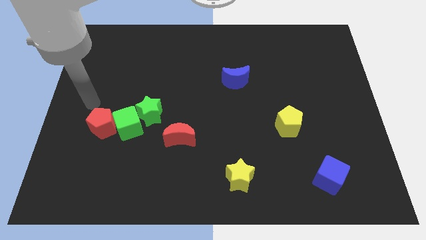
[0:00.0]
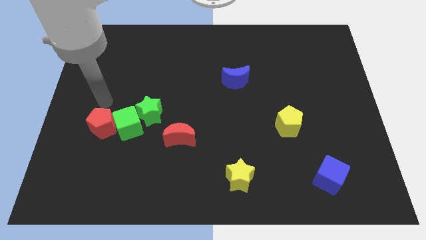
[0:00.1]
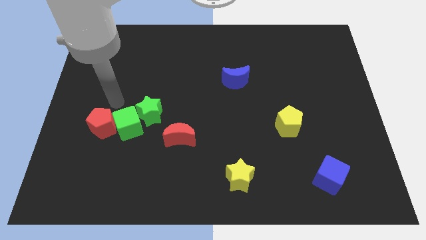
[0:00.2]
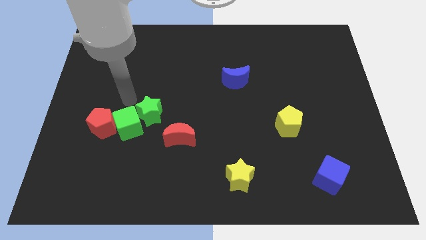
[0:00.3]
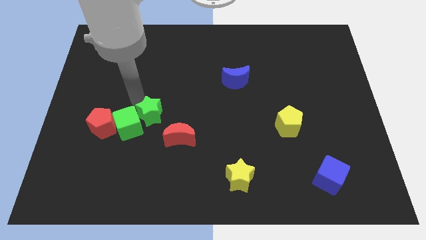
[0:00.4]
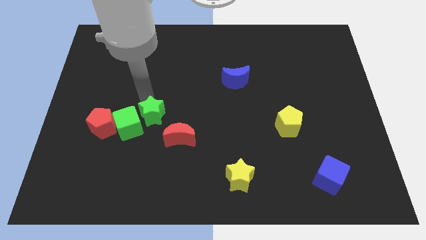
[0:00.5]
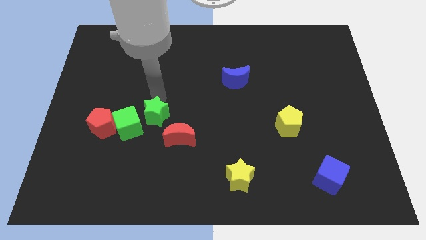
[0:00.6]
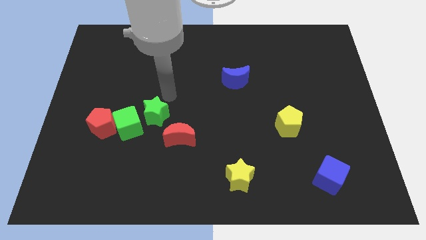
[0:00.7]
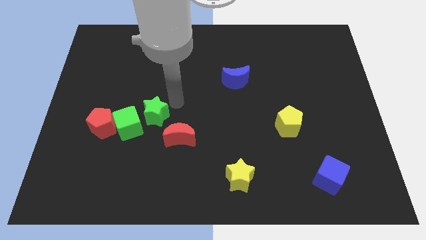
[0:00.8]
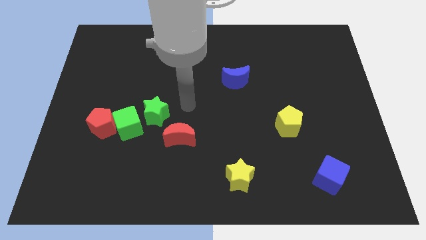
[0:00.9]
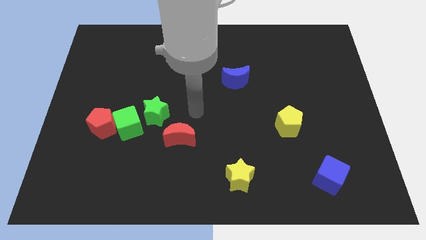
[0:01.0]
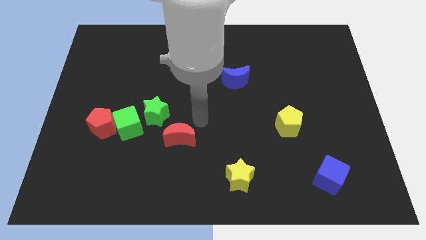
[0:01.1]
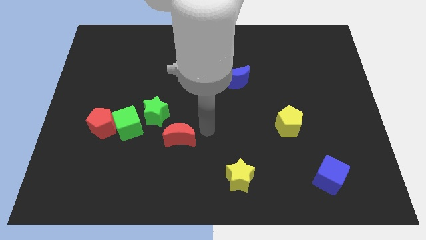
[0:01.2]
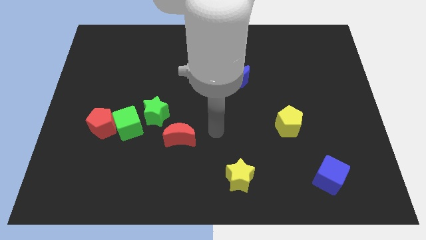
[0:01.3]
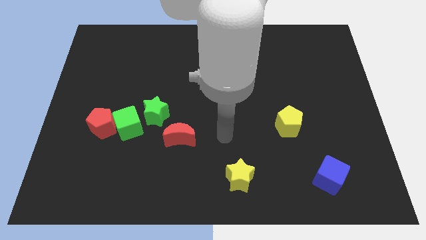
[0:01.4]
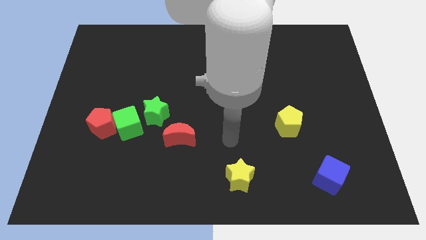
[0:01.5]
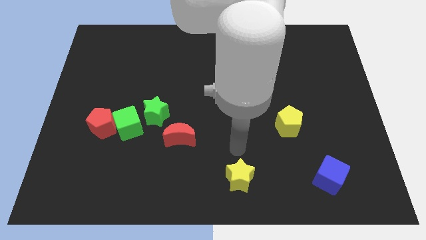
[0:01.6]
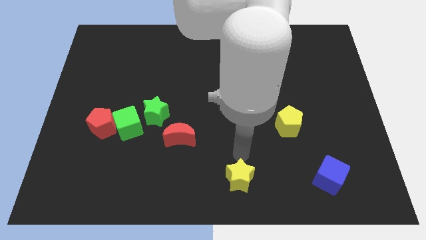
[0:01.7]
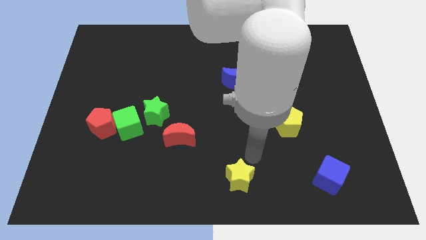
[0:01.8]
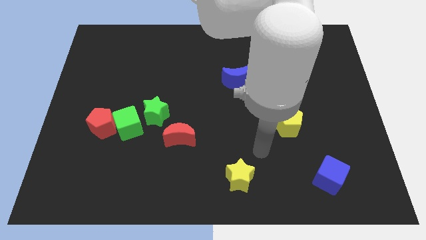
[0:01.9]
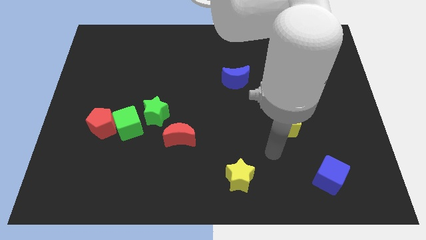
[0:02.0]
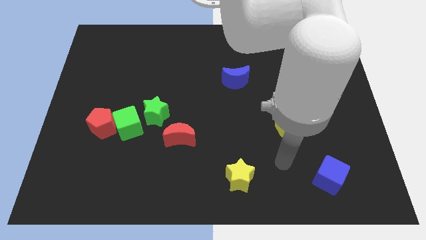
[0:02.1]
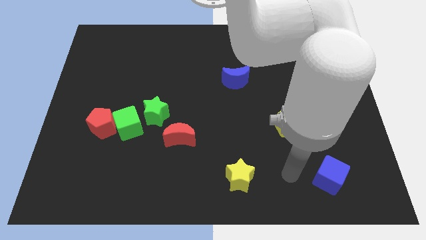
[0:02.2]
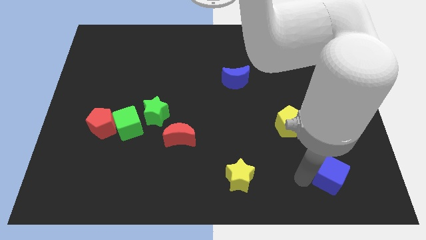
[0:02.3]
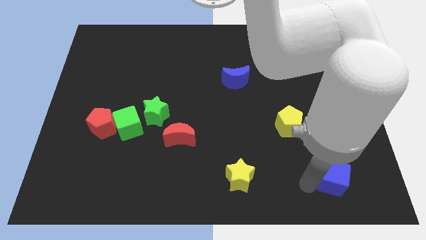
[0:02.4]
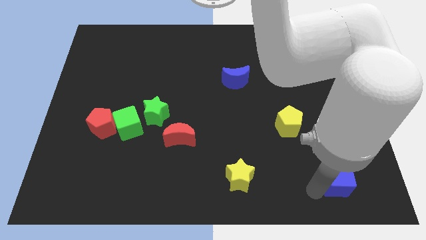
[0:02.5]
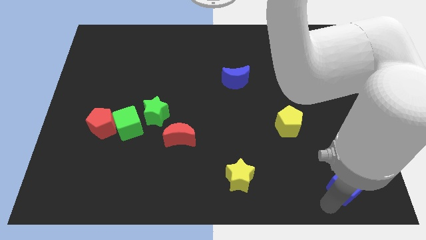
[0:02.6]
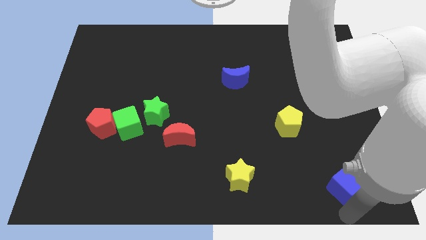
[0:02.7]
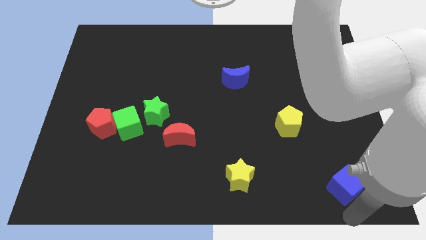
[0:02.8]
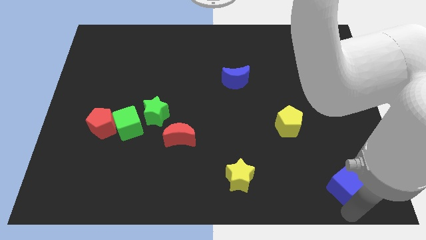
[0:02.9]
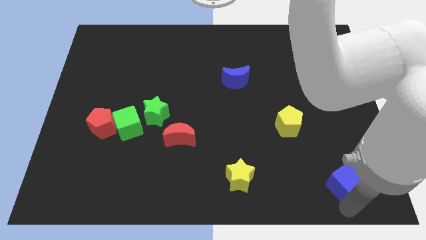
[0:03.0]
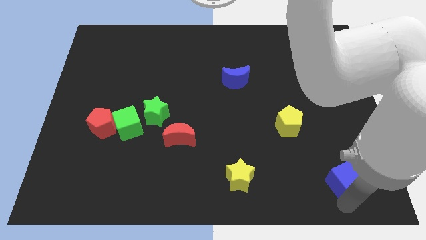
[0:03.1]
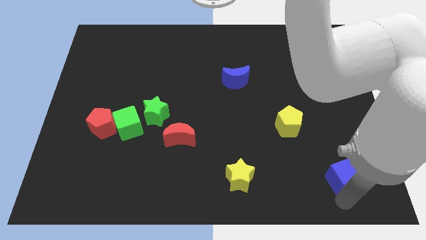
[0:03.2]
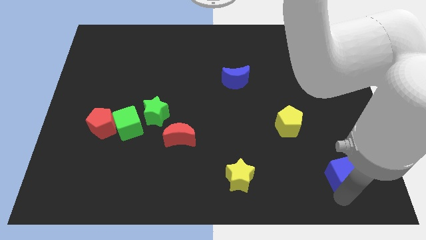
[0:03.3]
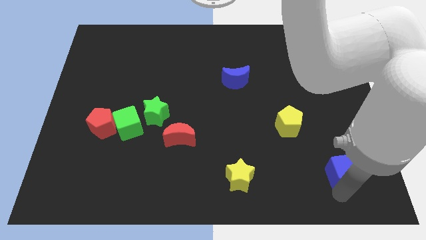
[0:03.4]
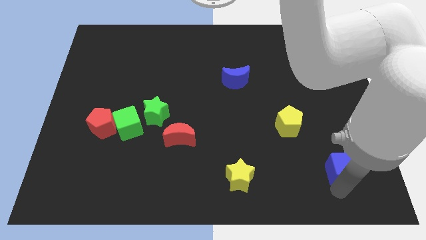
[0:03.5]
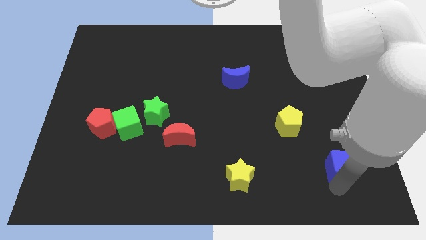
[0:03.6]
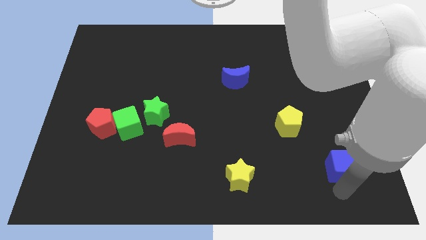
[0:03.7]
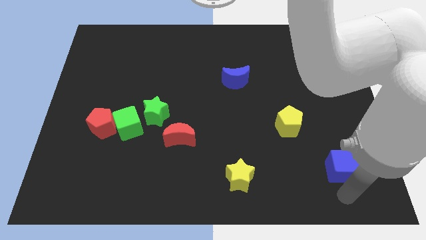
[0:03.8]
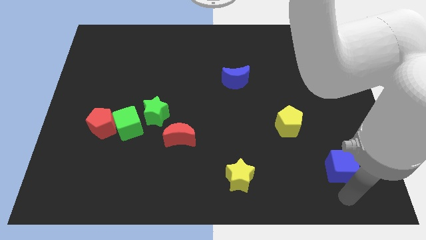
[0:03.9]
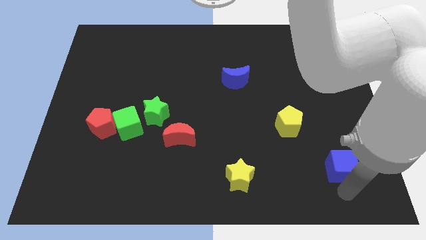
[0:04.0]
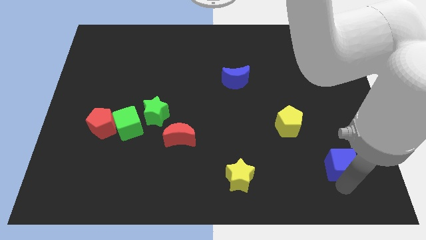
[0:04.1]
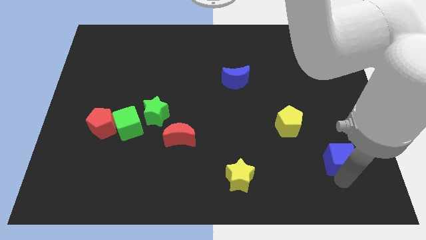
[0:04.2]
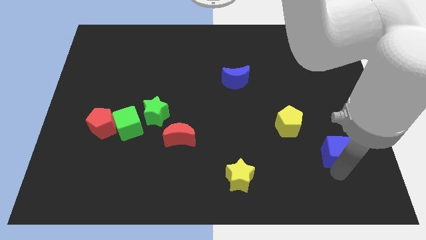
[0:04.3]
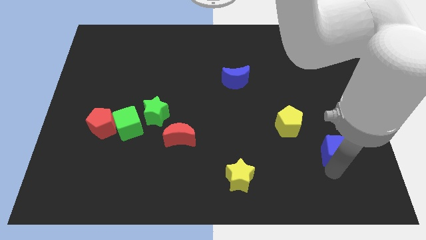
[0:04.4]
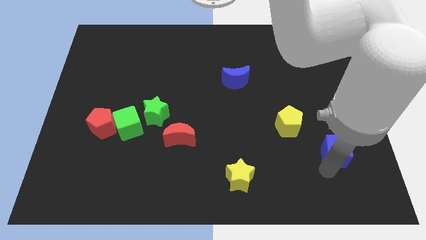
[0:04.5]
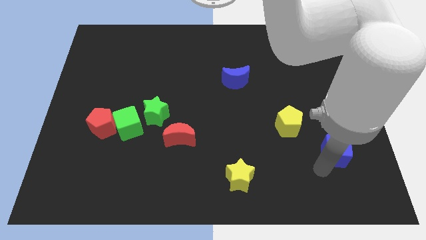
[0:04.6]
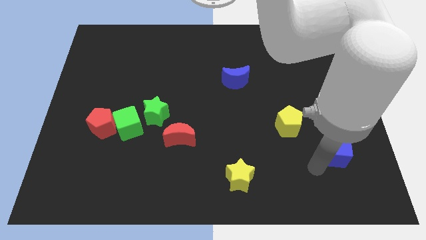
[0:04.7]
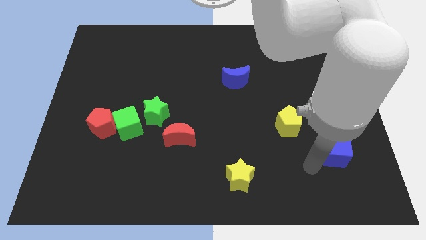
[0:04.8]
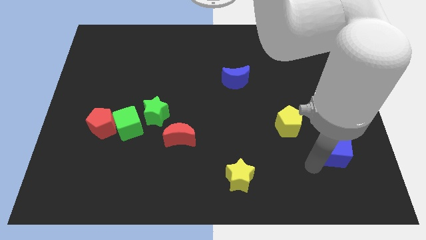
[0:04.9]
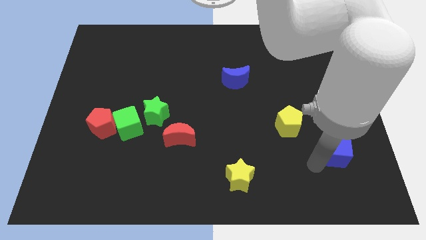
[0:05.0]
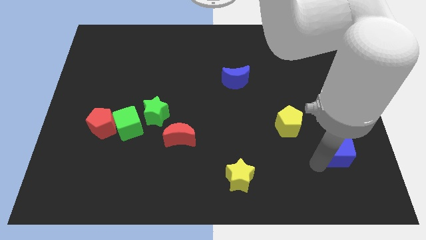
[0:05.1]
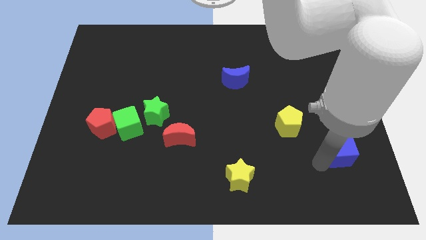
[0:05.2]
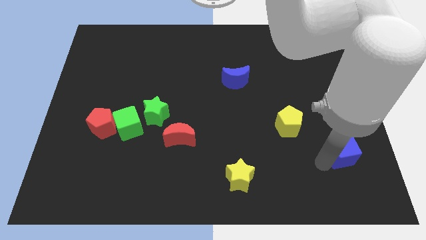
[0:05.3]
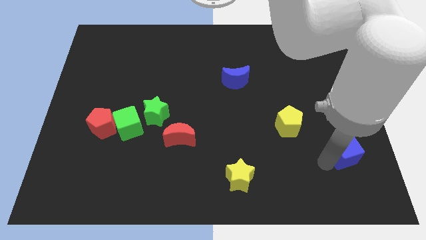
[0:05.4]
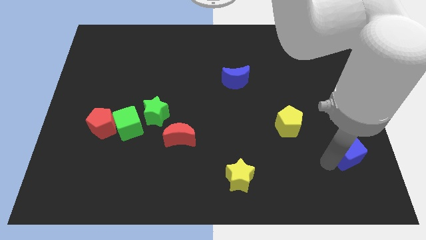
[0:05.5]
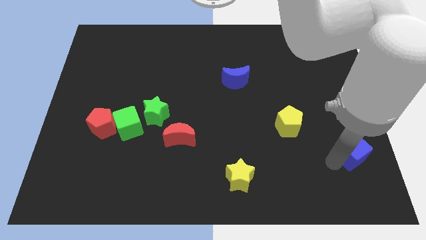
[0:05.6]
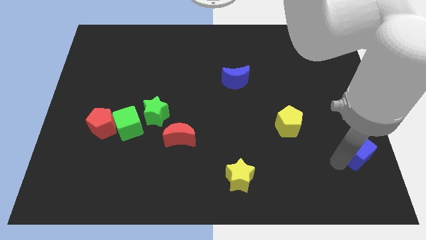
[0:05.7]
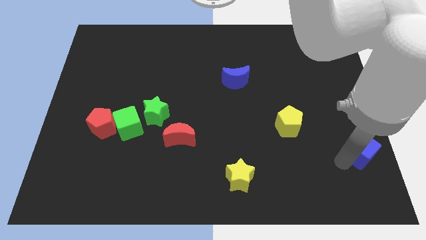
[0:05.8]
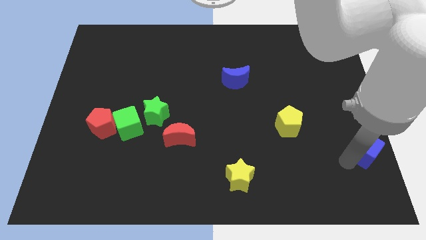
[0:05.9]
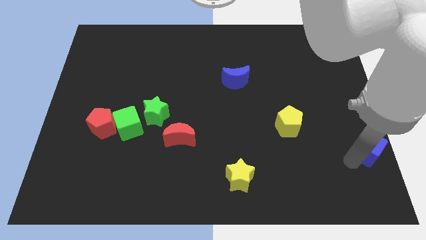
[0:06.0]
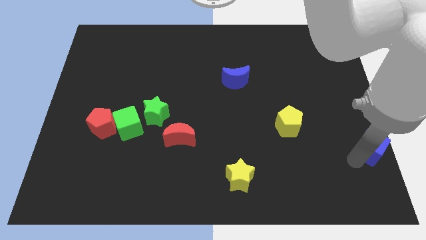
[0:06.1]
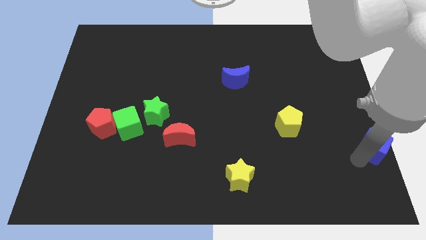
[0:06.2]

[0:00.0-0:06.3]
push the blue cube to the right side of the board

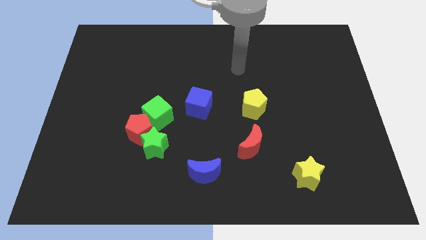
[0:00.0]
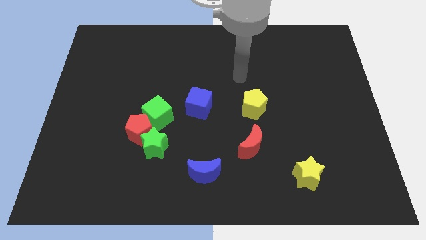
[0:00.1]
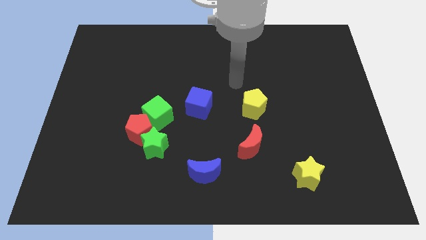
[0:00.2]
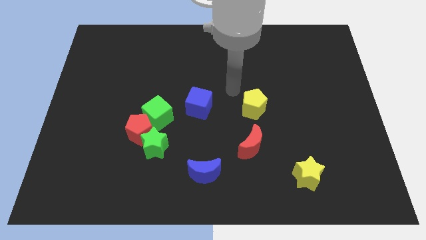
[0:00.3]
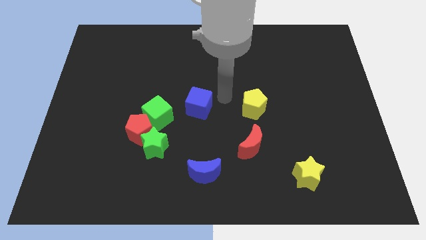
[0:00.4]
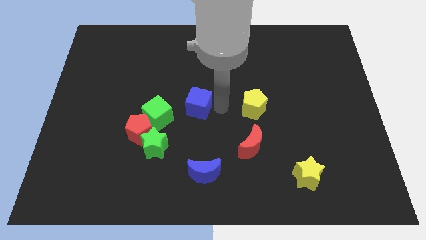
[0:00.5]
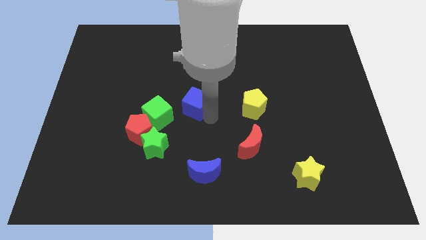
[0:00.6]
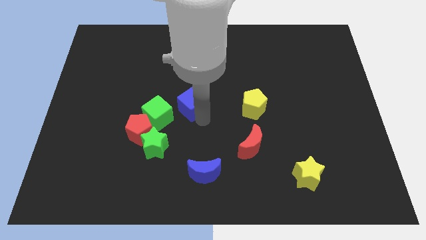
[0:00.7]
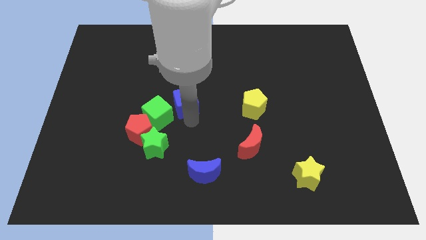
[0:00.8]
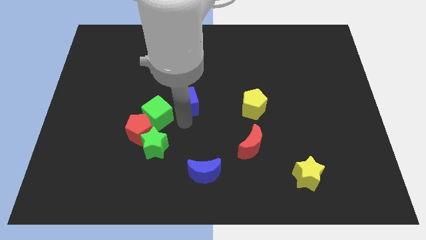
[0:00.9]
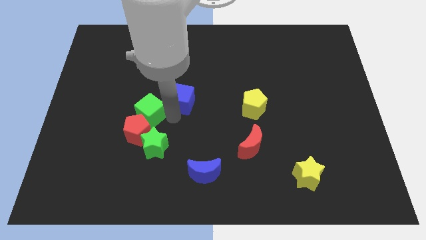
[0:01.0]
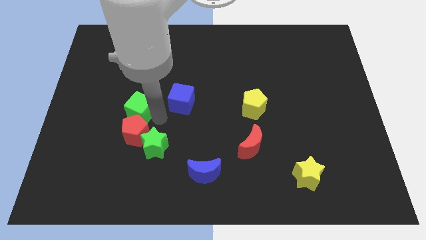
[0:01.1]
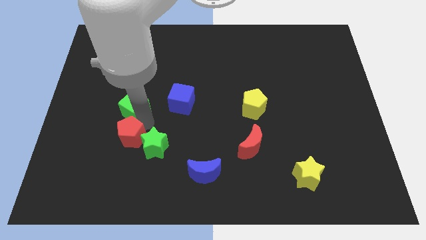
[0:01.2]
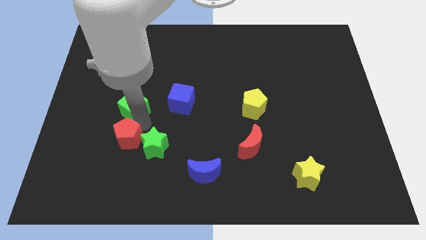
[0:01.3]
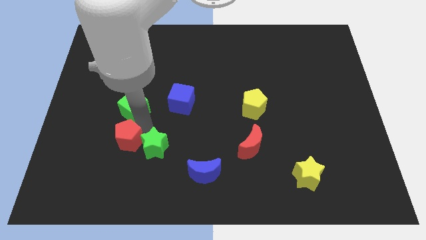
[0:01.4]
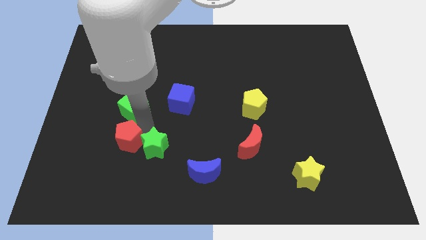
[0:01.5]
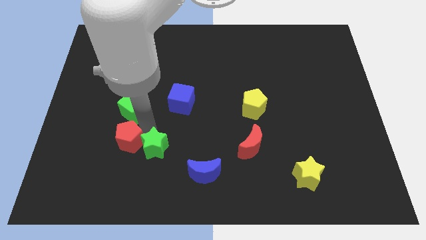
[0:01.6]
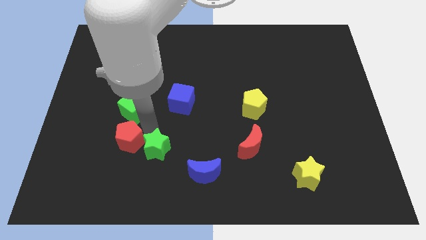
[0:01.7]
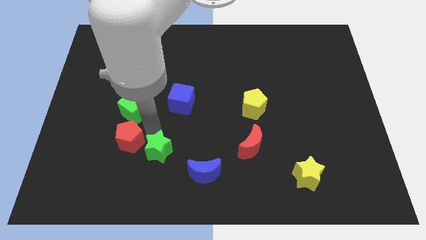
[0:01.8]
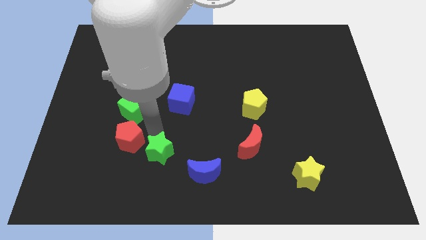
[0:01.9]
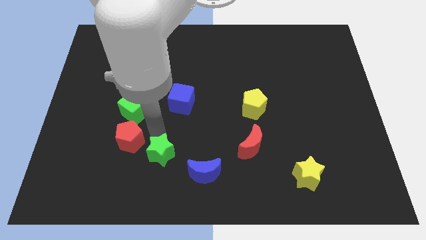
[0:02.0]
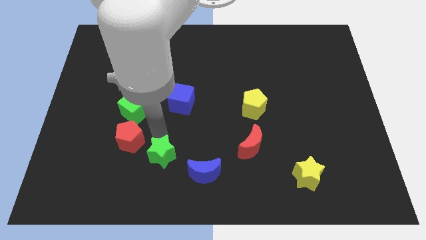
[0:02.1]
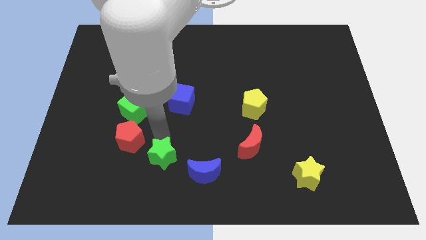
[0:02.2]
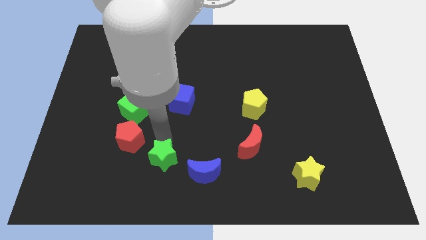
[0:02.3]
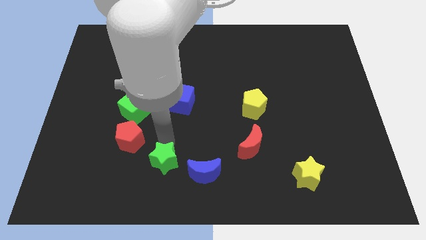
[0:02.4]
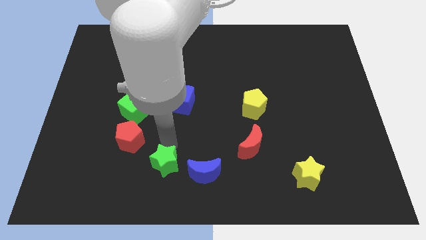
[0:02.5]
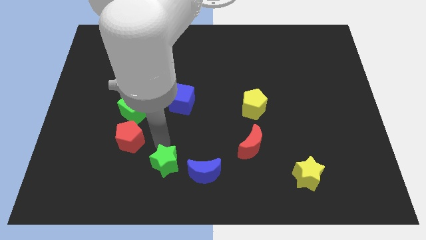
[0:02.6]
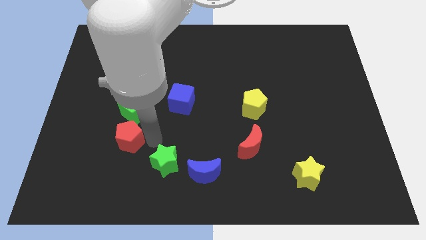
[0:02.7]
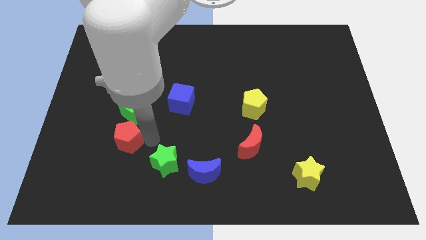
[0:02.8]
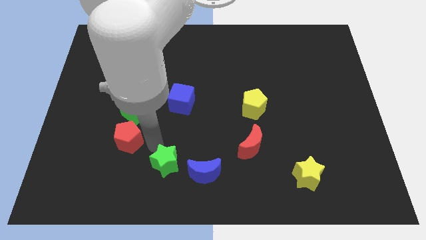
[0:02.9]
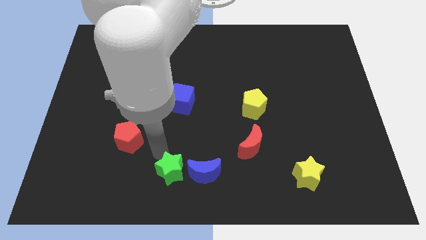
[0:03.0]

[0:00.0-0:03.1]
push the green star to the bottom
